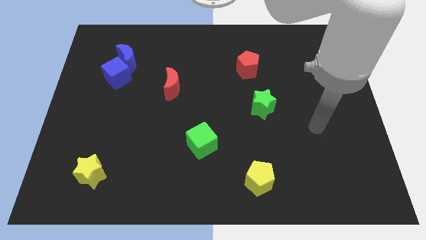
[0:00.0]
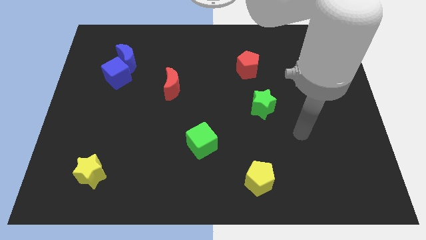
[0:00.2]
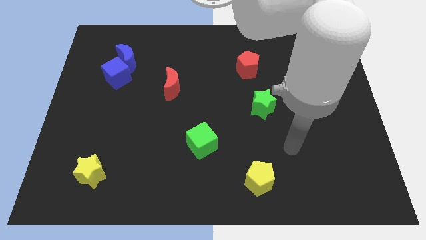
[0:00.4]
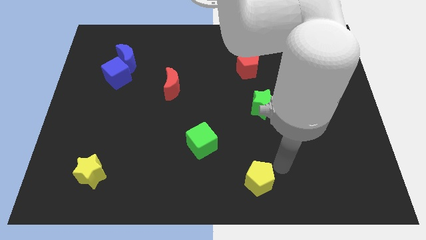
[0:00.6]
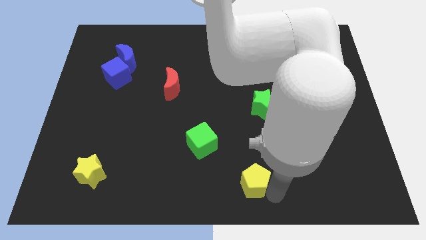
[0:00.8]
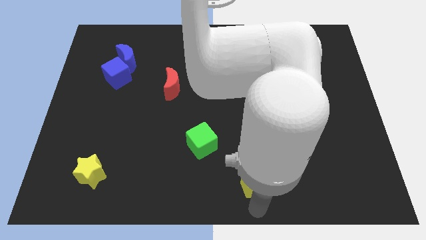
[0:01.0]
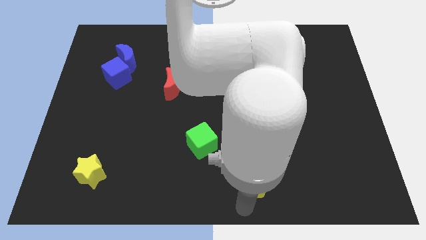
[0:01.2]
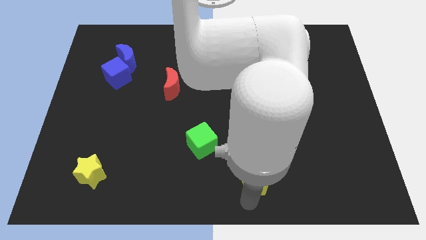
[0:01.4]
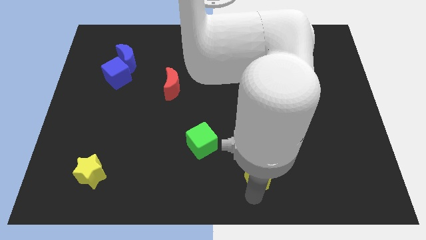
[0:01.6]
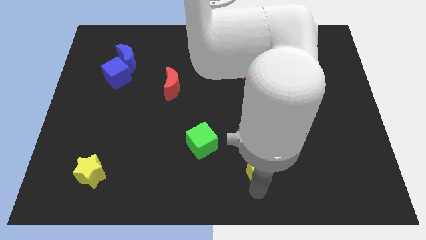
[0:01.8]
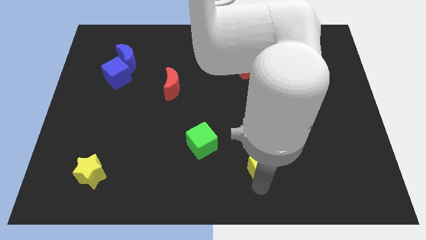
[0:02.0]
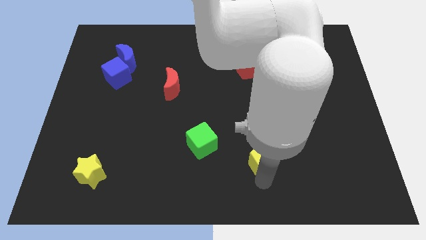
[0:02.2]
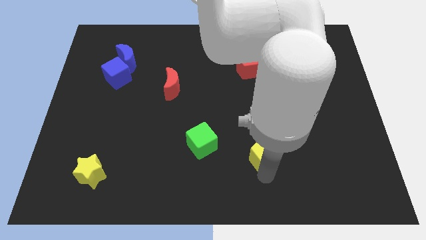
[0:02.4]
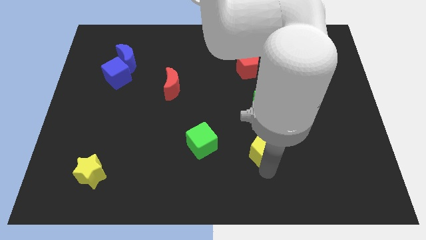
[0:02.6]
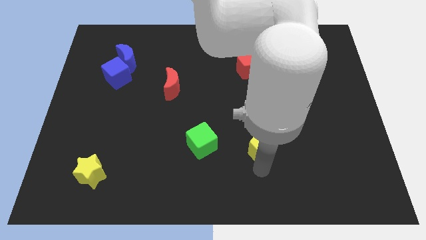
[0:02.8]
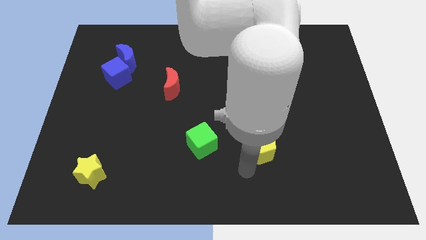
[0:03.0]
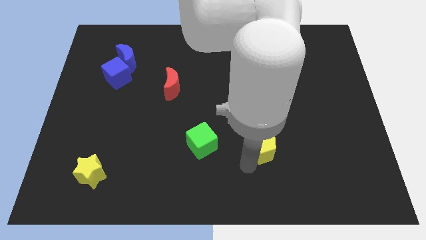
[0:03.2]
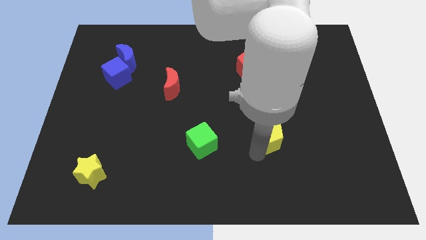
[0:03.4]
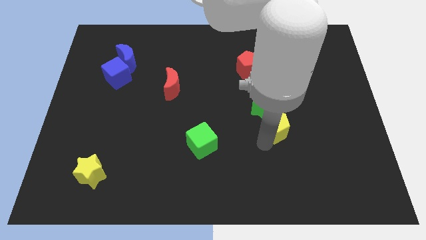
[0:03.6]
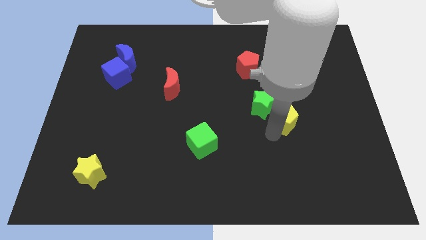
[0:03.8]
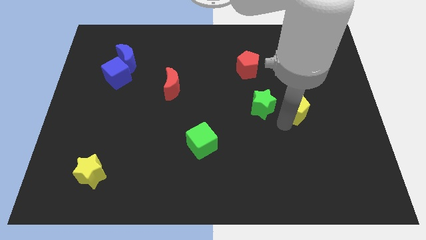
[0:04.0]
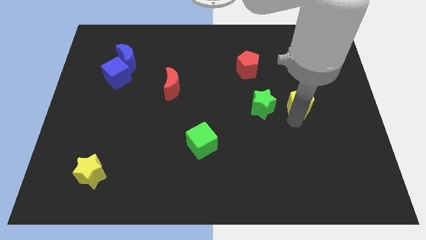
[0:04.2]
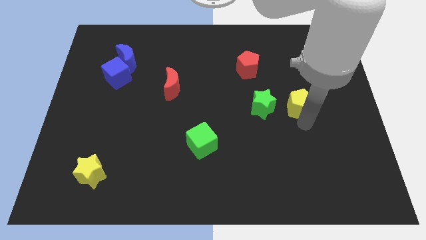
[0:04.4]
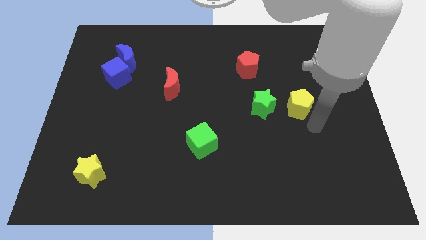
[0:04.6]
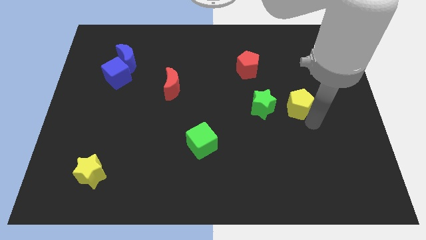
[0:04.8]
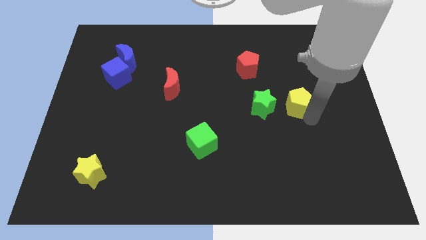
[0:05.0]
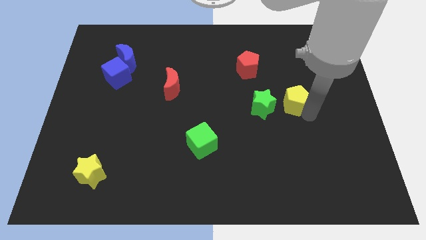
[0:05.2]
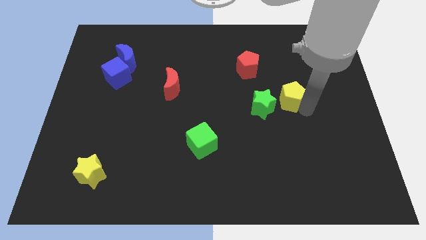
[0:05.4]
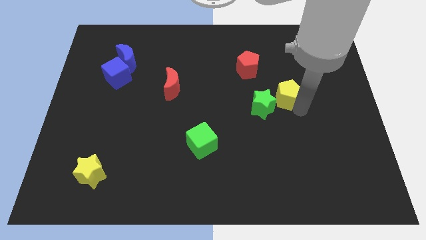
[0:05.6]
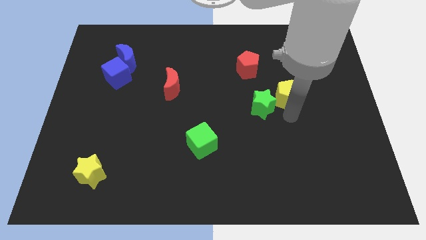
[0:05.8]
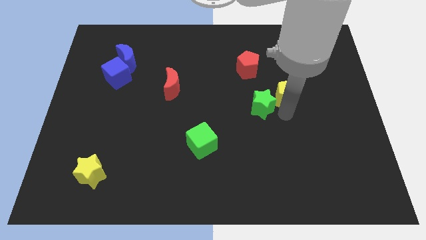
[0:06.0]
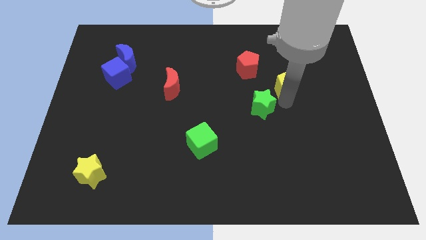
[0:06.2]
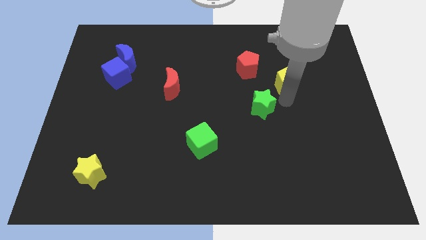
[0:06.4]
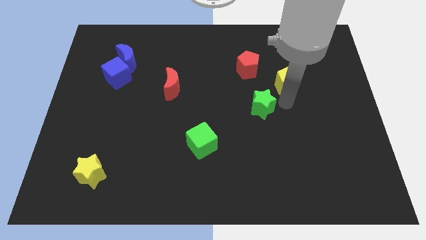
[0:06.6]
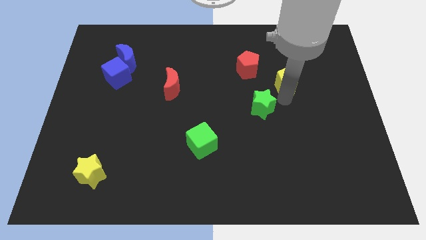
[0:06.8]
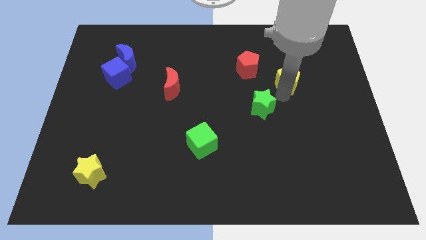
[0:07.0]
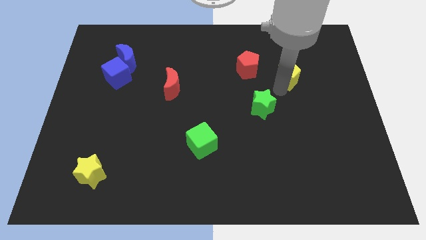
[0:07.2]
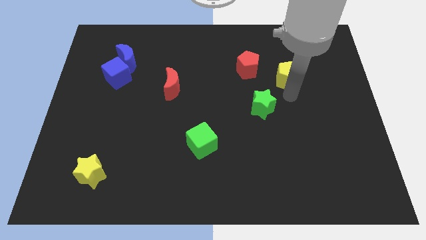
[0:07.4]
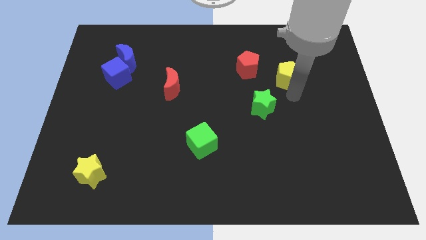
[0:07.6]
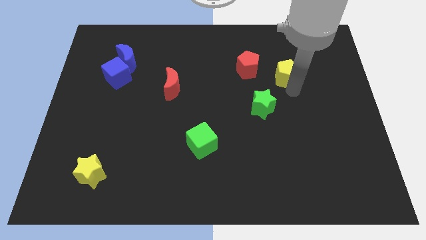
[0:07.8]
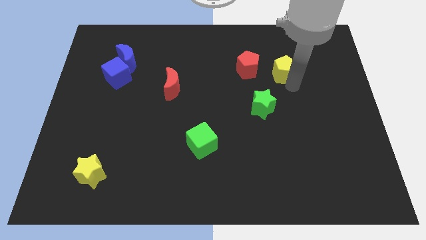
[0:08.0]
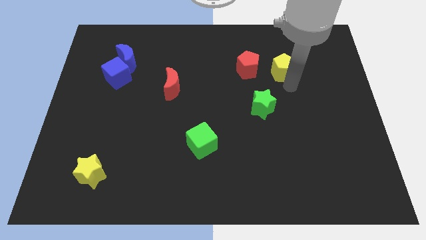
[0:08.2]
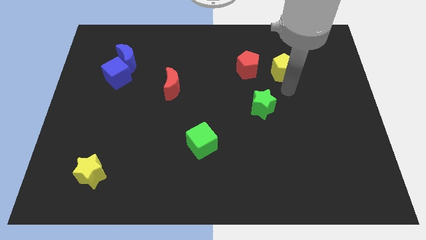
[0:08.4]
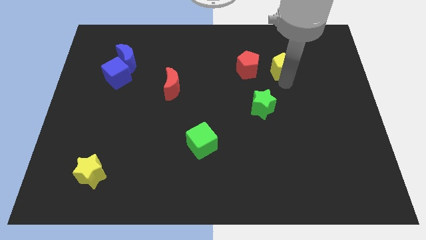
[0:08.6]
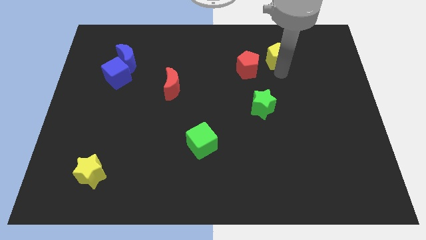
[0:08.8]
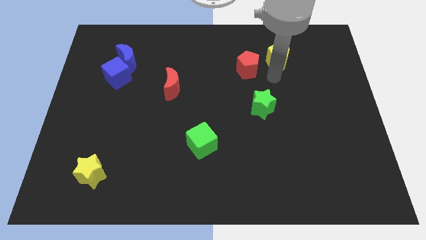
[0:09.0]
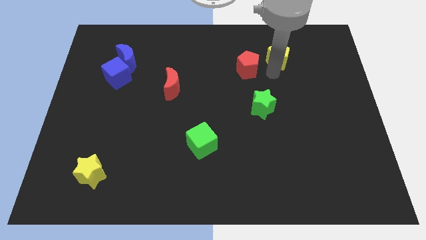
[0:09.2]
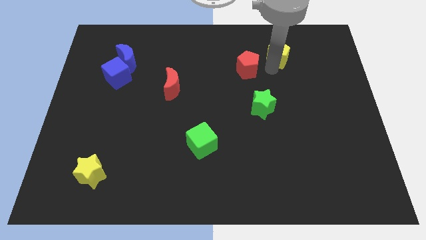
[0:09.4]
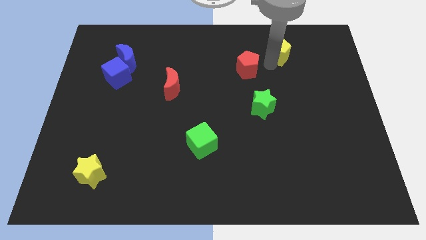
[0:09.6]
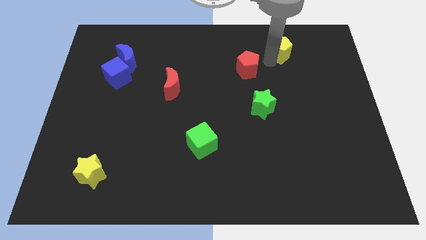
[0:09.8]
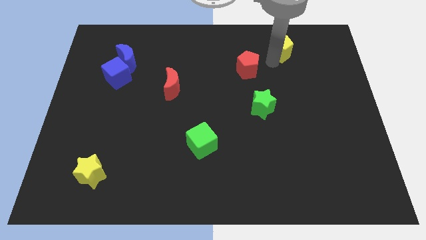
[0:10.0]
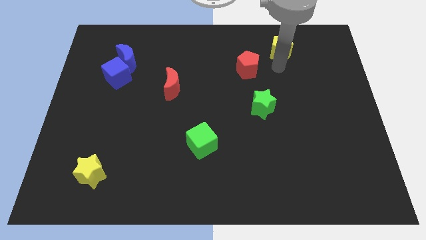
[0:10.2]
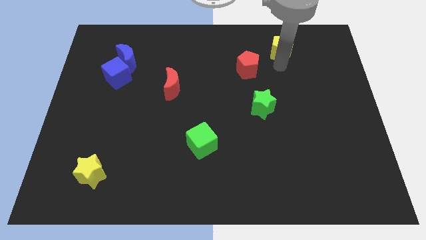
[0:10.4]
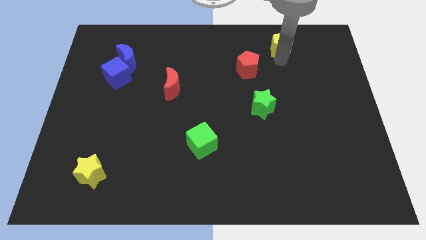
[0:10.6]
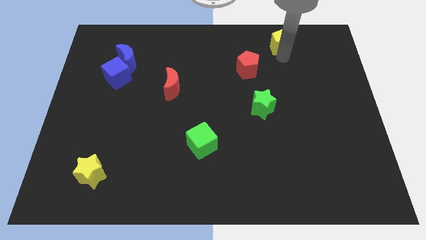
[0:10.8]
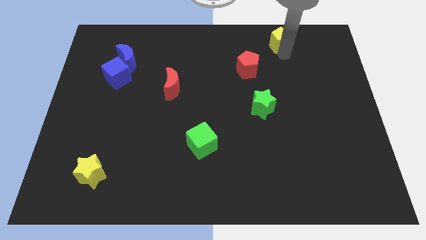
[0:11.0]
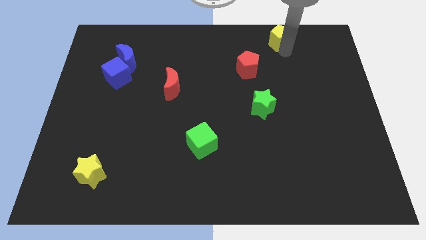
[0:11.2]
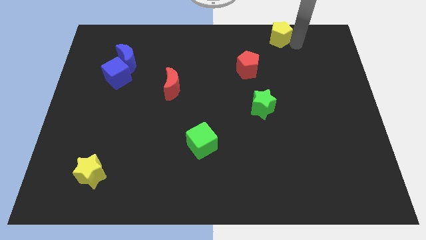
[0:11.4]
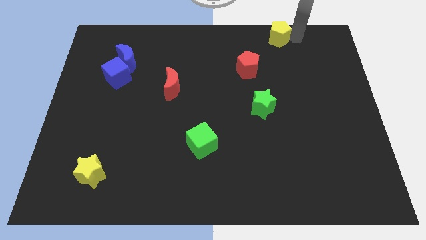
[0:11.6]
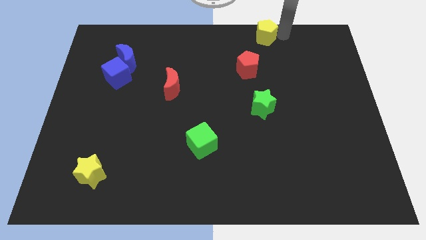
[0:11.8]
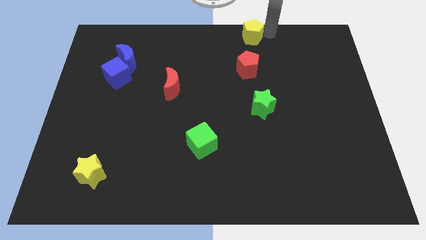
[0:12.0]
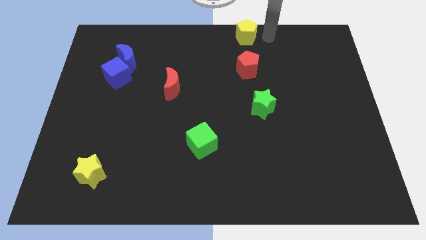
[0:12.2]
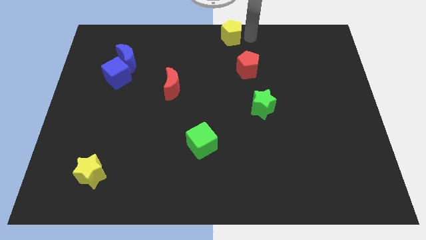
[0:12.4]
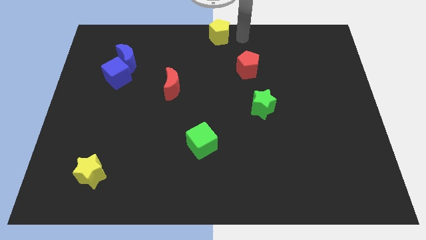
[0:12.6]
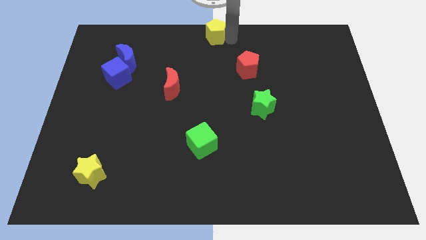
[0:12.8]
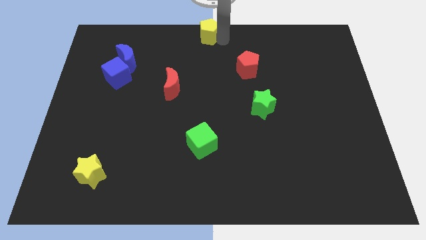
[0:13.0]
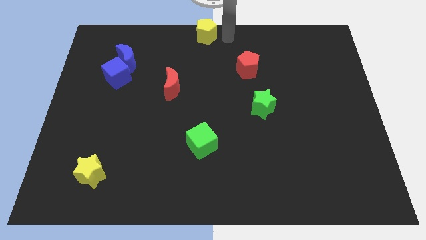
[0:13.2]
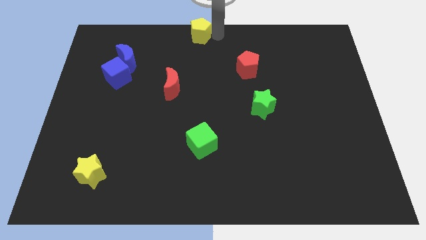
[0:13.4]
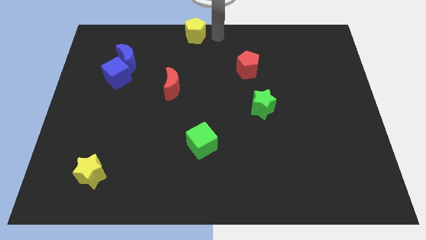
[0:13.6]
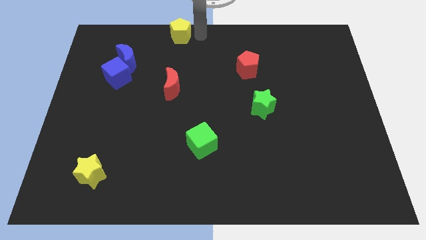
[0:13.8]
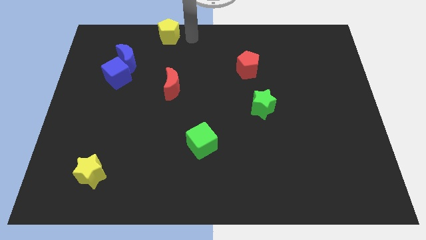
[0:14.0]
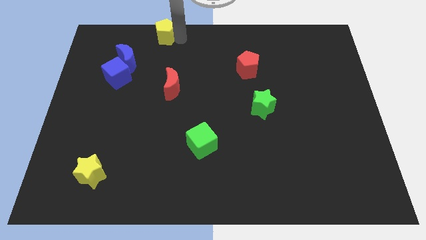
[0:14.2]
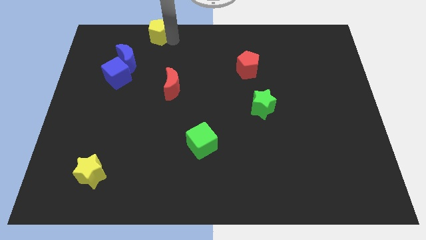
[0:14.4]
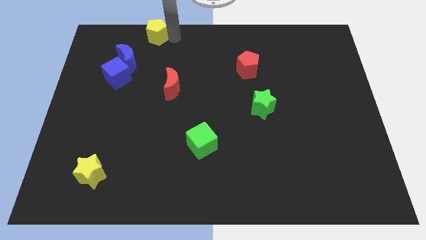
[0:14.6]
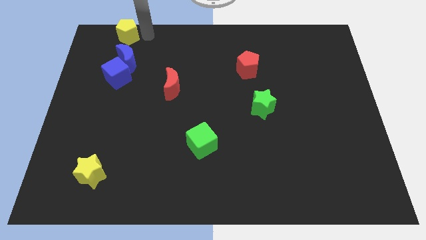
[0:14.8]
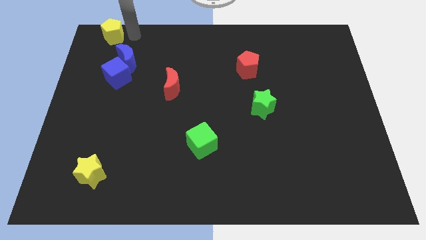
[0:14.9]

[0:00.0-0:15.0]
move the yellow pentagon to the top left of the board

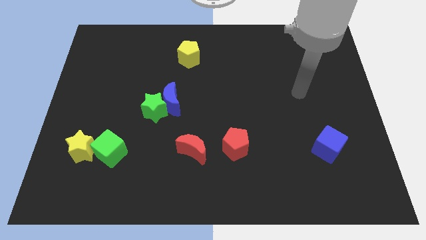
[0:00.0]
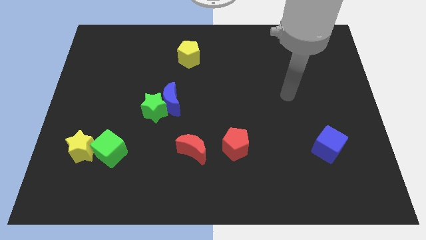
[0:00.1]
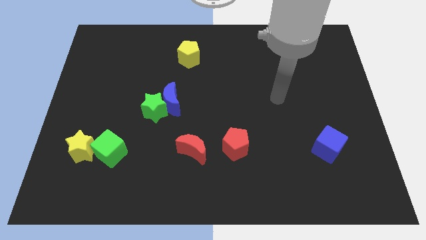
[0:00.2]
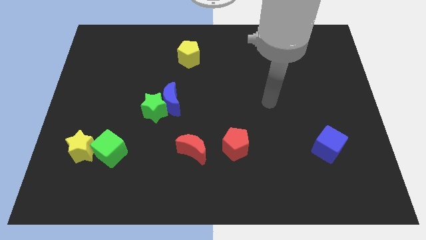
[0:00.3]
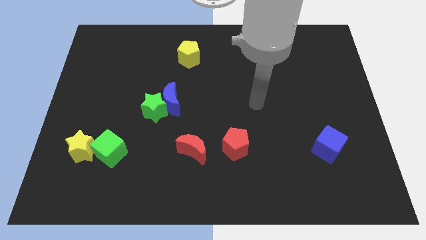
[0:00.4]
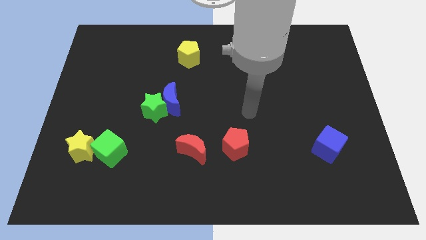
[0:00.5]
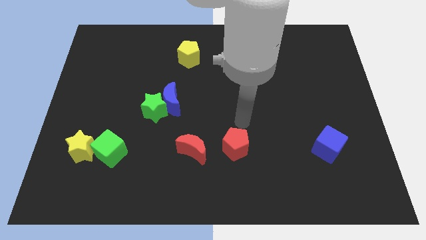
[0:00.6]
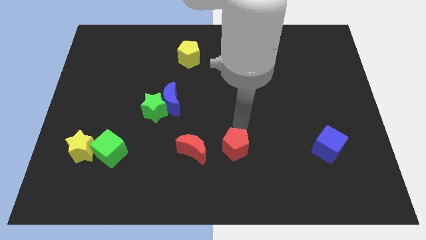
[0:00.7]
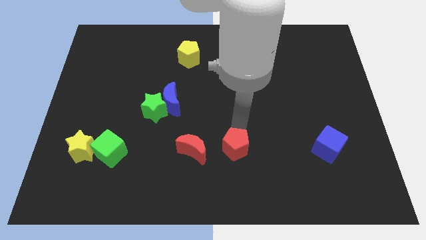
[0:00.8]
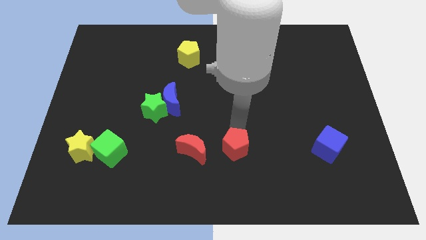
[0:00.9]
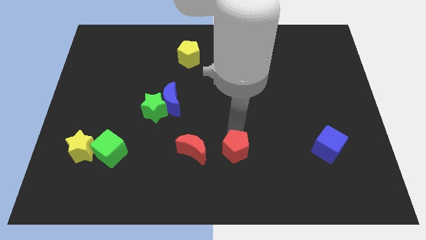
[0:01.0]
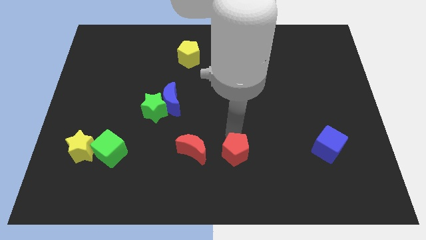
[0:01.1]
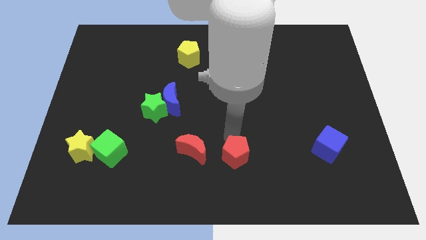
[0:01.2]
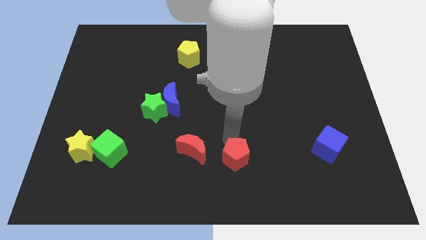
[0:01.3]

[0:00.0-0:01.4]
slide the red pentagon to the bottom side

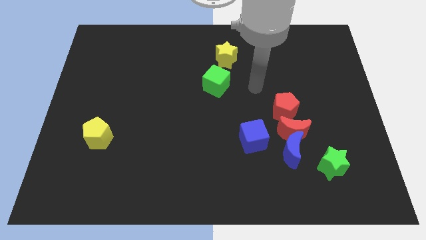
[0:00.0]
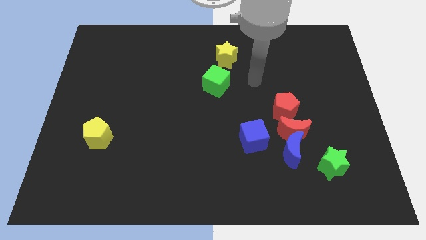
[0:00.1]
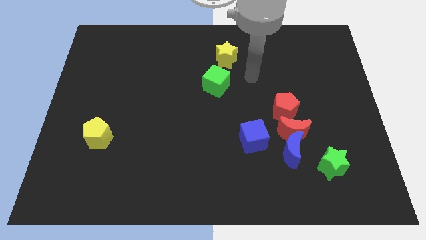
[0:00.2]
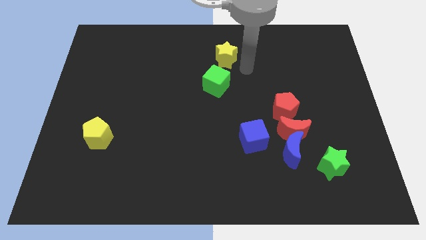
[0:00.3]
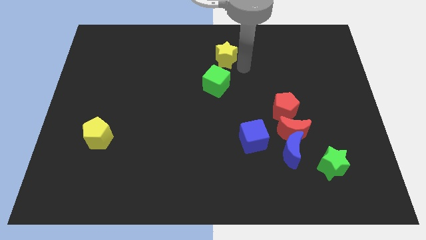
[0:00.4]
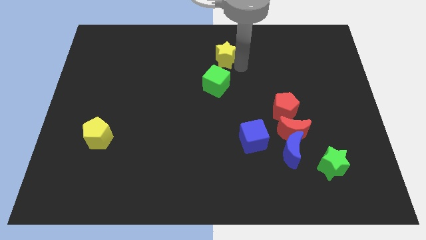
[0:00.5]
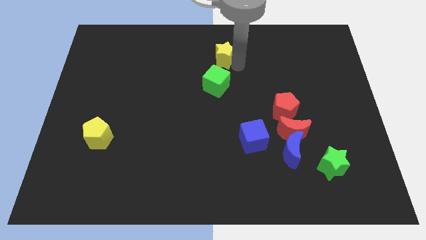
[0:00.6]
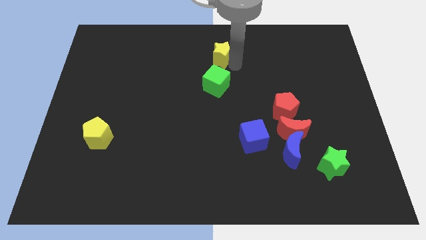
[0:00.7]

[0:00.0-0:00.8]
slide the yellow star to the towards your base
